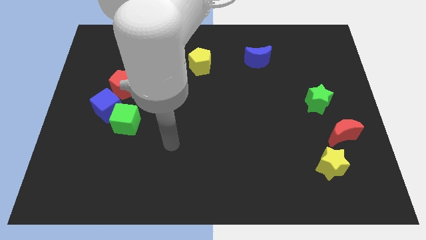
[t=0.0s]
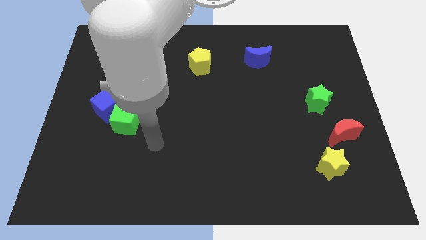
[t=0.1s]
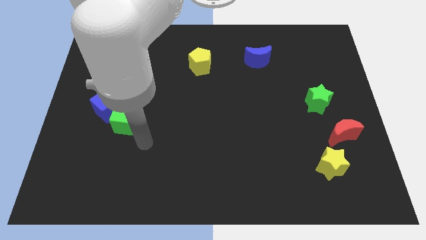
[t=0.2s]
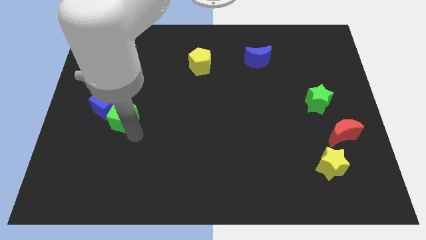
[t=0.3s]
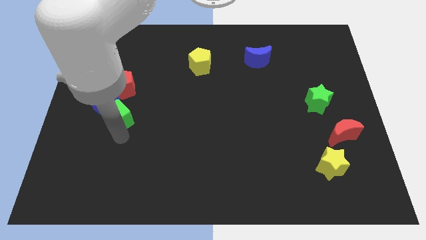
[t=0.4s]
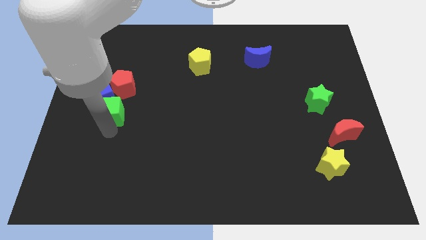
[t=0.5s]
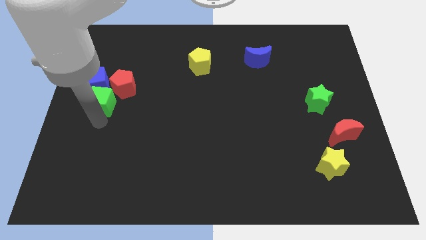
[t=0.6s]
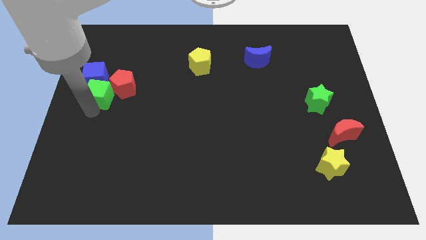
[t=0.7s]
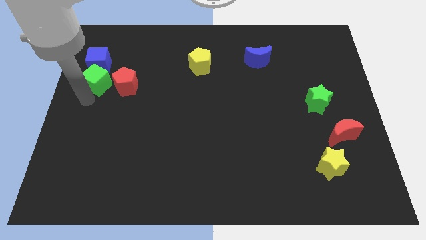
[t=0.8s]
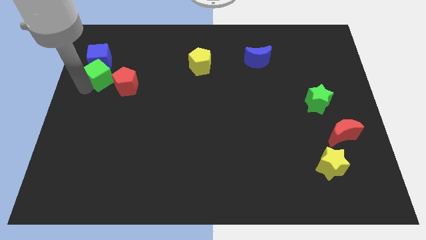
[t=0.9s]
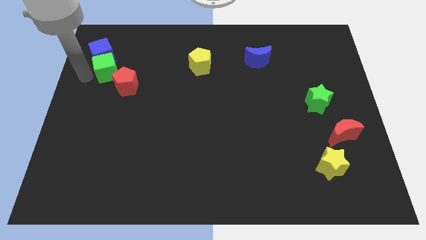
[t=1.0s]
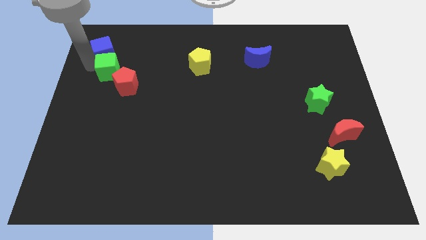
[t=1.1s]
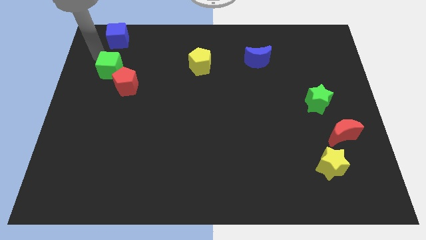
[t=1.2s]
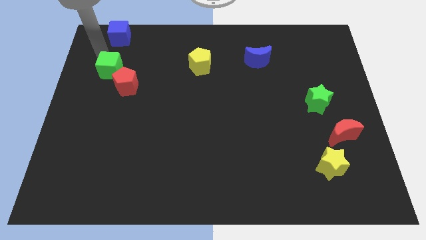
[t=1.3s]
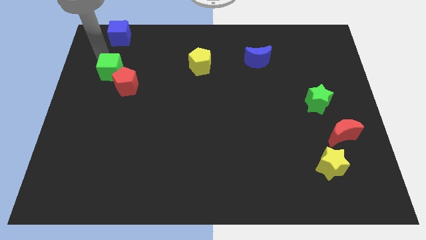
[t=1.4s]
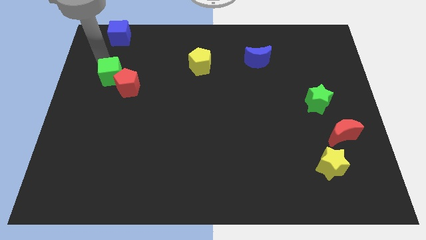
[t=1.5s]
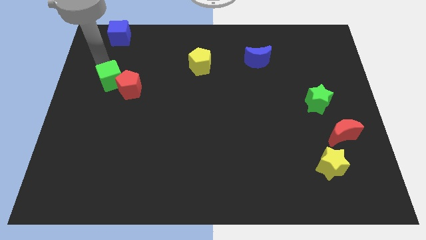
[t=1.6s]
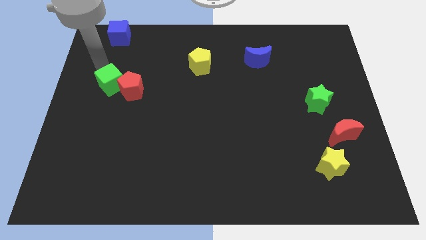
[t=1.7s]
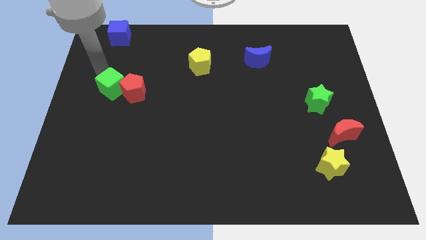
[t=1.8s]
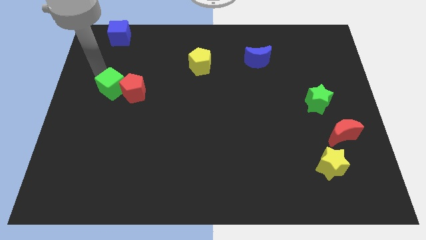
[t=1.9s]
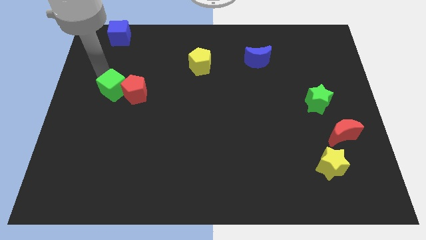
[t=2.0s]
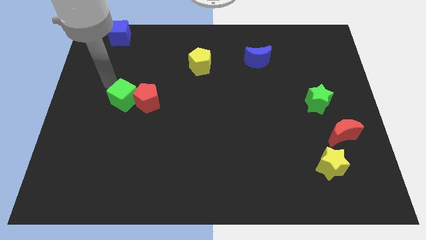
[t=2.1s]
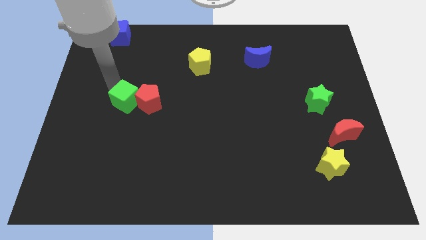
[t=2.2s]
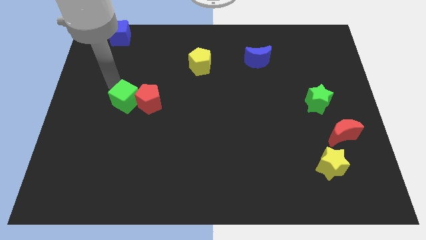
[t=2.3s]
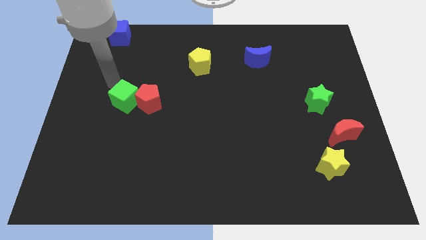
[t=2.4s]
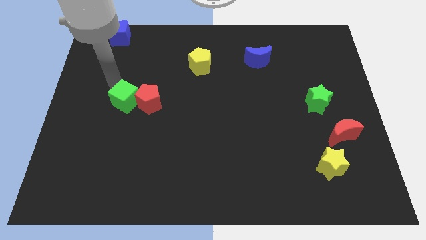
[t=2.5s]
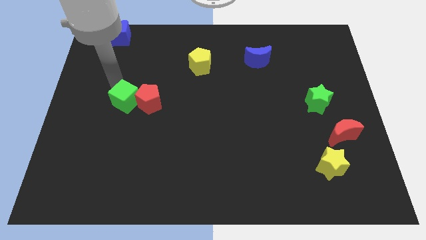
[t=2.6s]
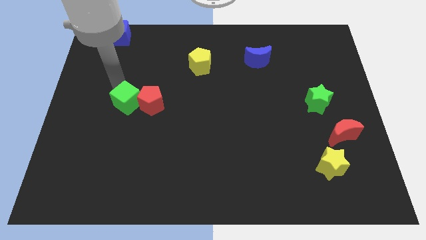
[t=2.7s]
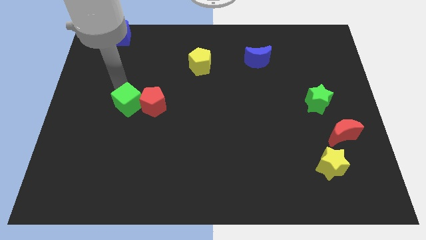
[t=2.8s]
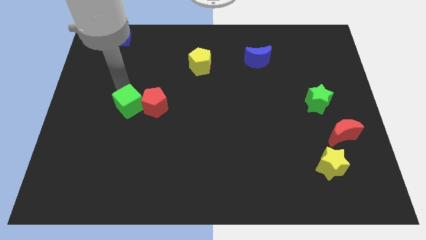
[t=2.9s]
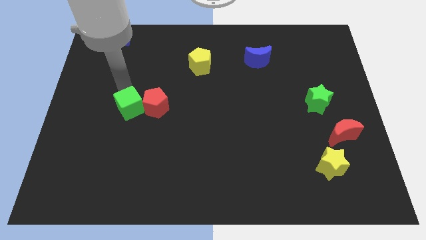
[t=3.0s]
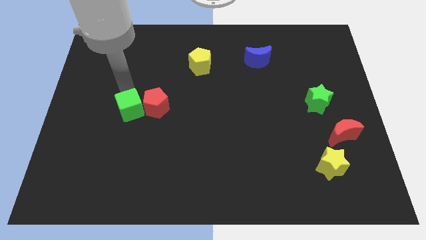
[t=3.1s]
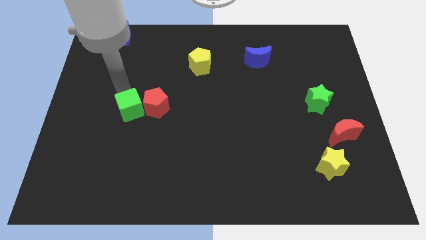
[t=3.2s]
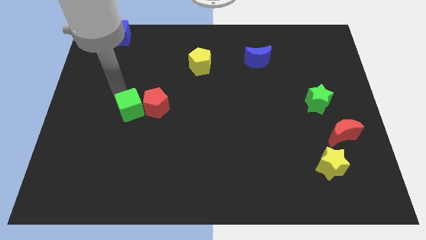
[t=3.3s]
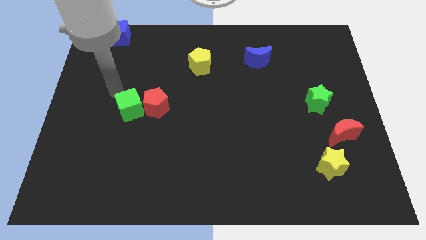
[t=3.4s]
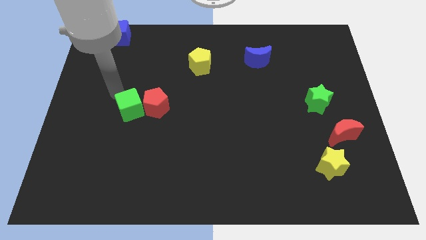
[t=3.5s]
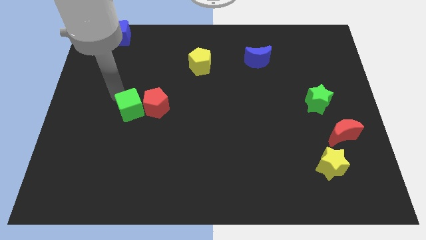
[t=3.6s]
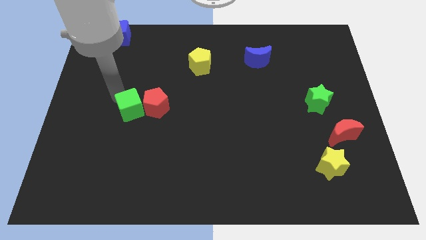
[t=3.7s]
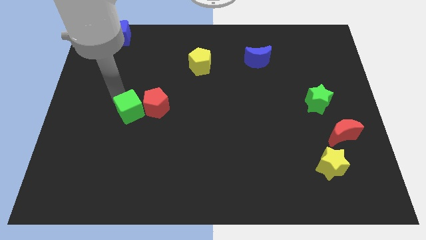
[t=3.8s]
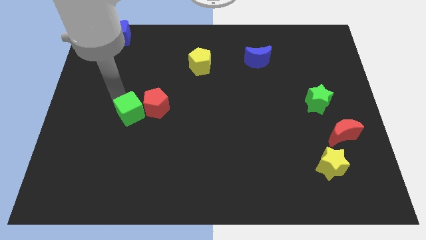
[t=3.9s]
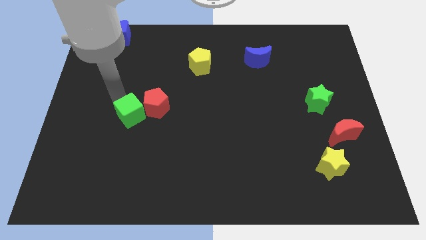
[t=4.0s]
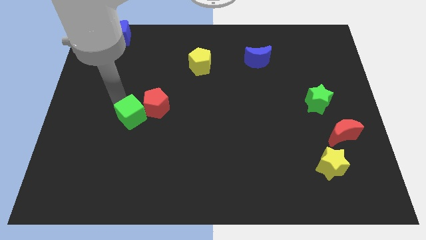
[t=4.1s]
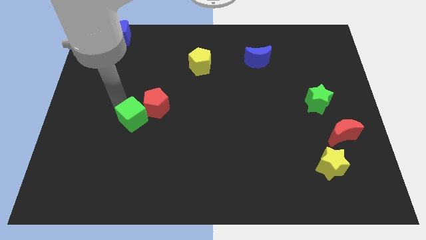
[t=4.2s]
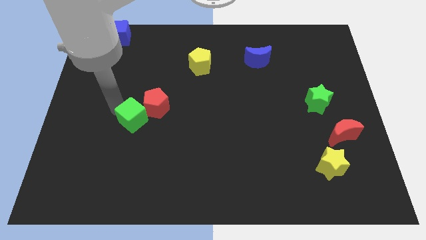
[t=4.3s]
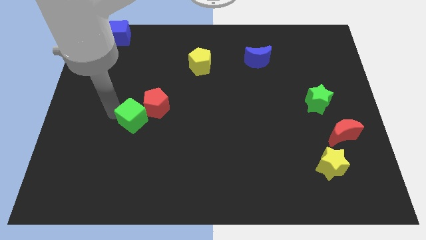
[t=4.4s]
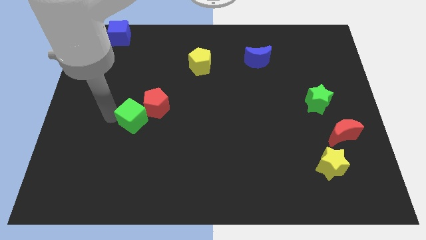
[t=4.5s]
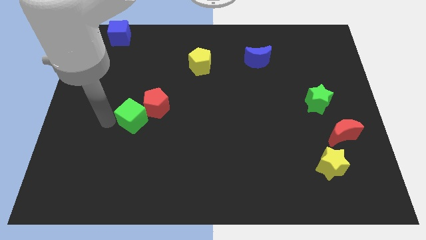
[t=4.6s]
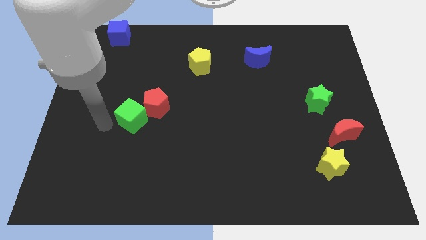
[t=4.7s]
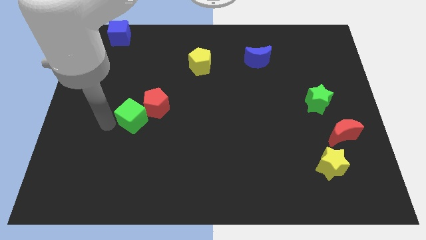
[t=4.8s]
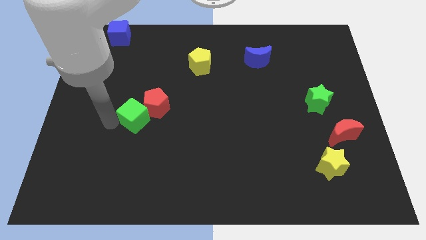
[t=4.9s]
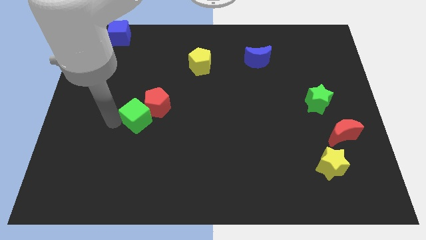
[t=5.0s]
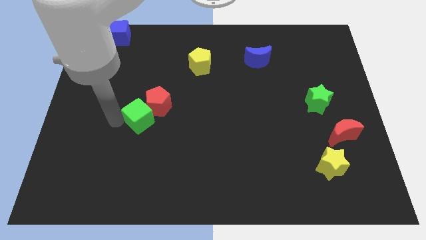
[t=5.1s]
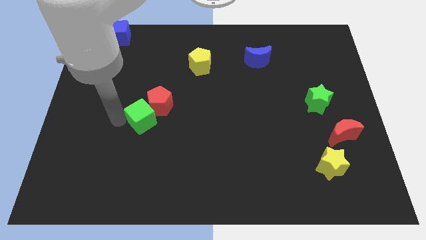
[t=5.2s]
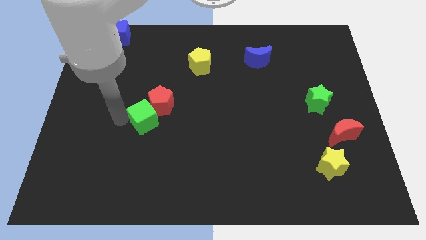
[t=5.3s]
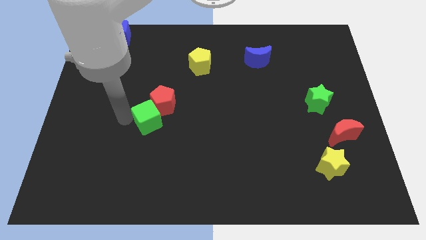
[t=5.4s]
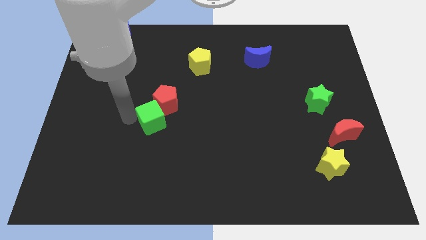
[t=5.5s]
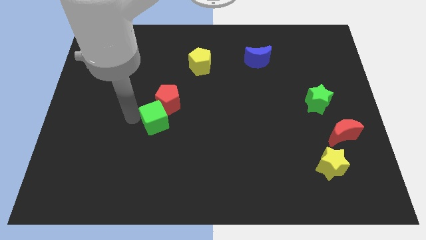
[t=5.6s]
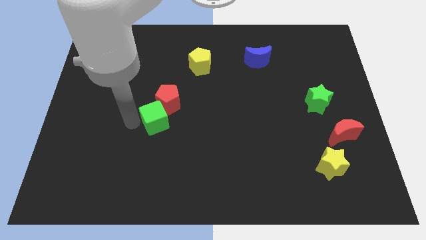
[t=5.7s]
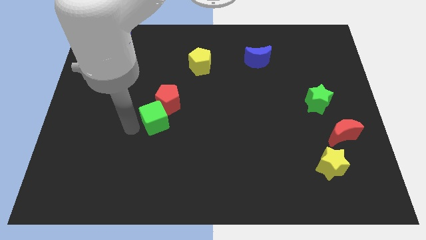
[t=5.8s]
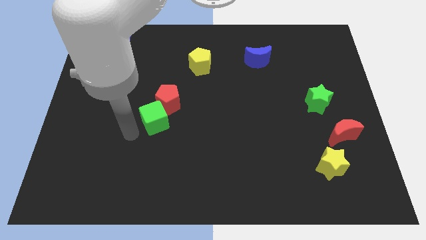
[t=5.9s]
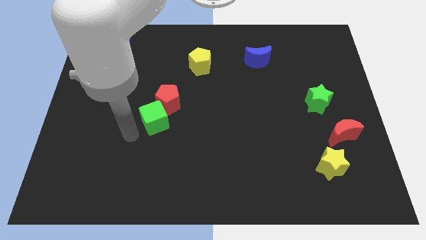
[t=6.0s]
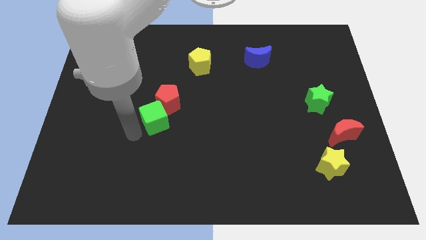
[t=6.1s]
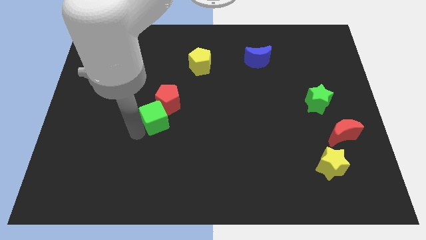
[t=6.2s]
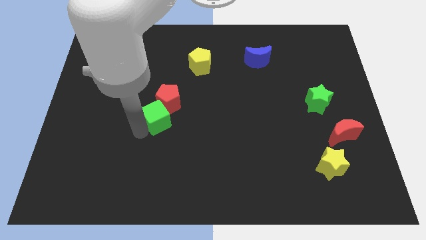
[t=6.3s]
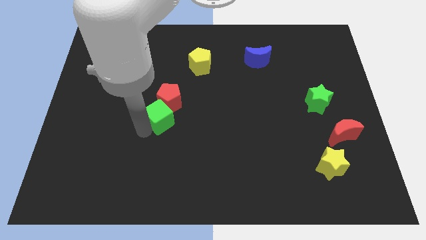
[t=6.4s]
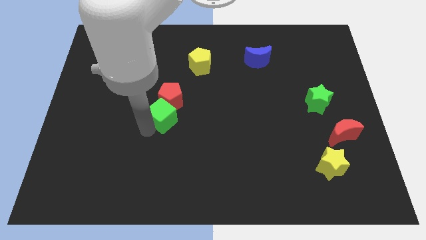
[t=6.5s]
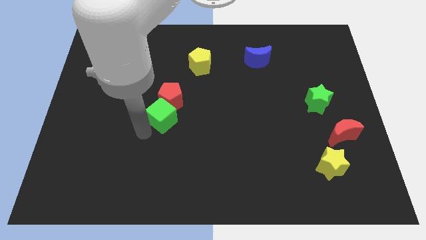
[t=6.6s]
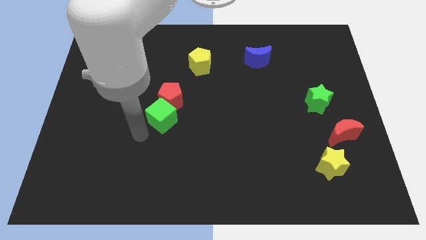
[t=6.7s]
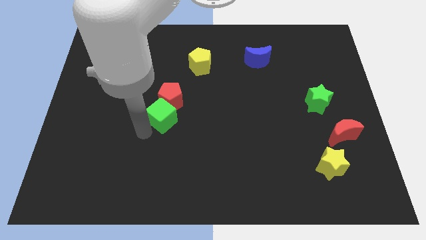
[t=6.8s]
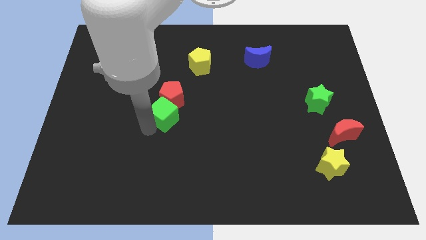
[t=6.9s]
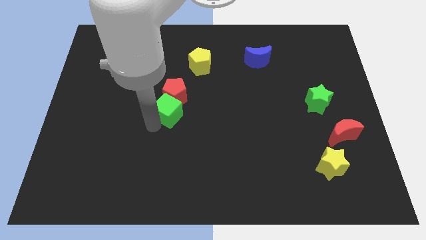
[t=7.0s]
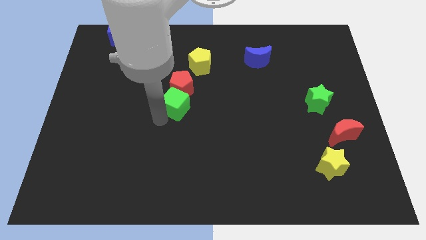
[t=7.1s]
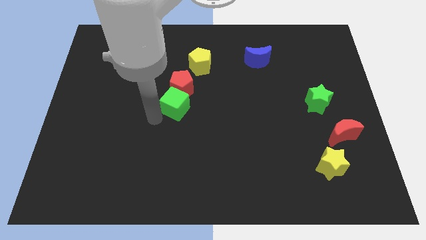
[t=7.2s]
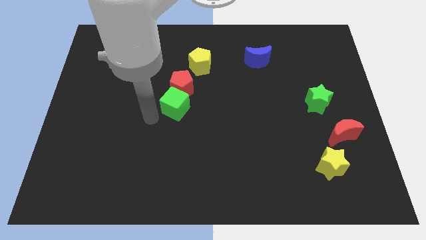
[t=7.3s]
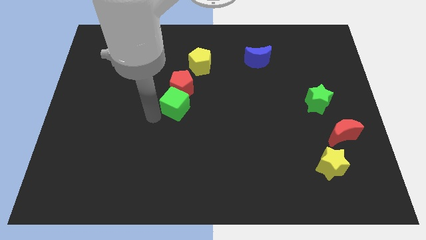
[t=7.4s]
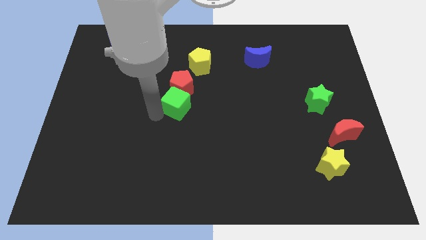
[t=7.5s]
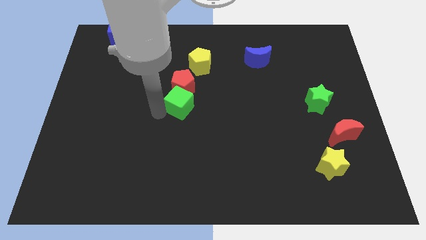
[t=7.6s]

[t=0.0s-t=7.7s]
put the green cube to the bottom of the yellow pentagon
